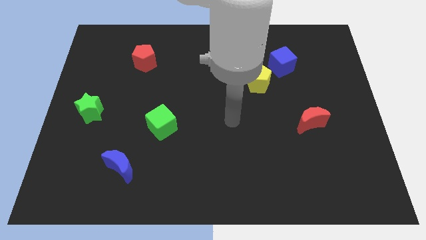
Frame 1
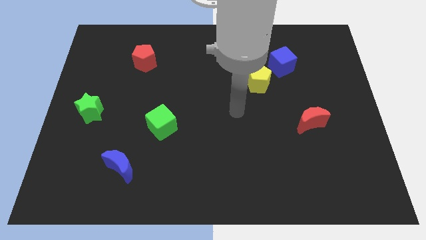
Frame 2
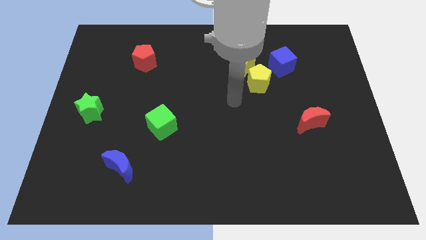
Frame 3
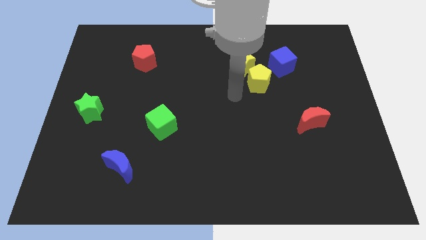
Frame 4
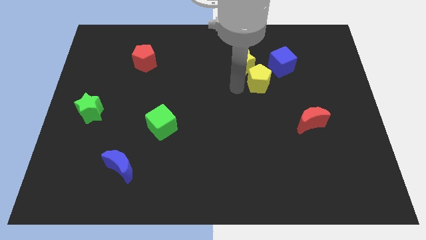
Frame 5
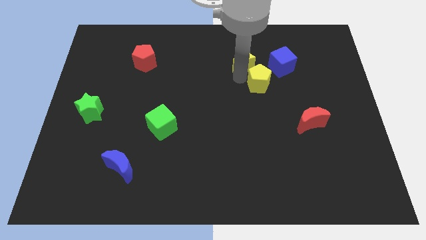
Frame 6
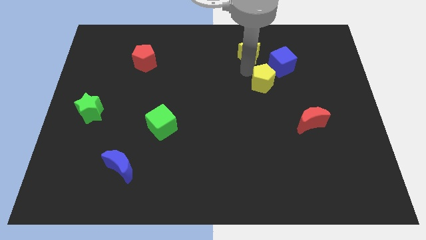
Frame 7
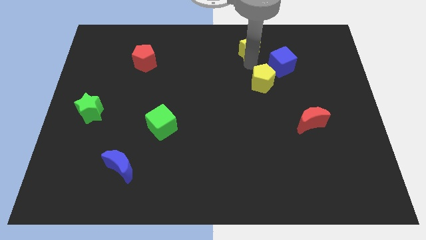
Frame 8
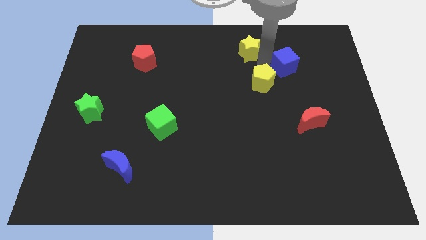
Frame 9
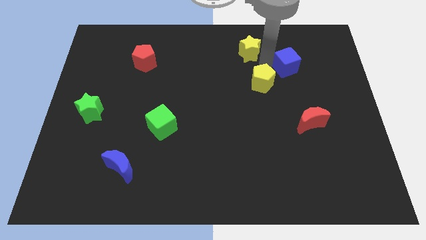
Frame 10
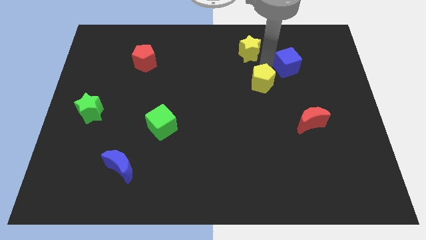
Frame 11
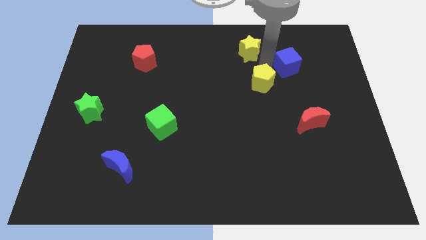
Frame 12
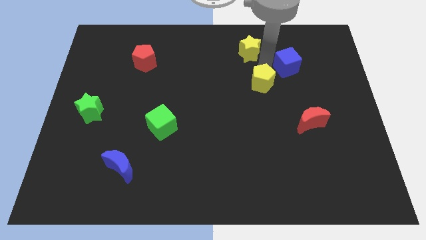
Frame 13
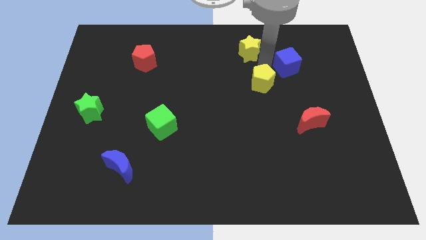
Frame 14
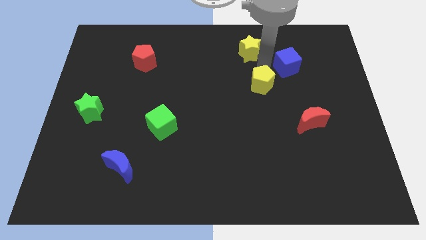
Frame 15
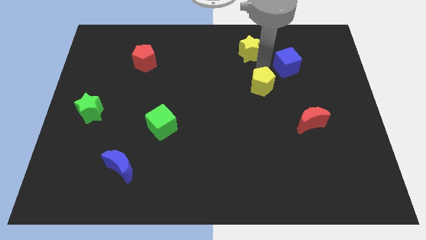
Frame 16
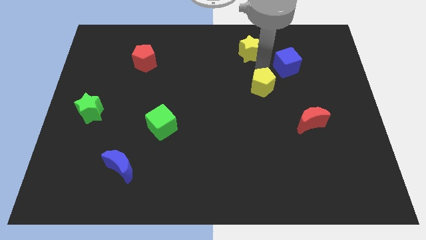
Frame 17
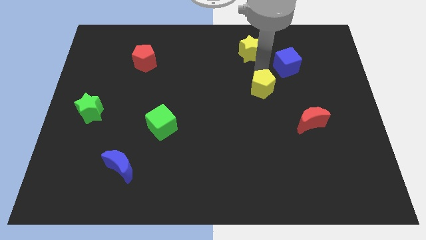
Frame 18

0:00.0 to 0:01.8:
pull the yellow pentagon apart from the yellow star and blue cube

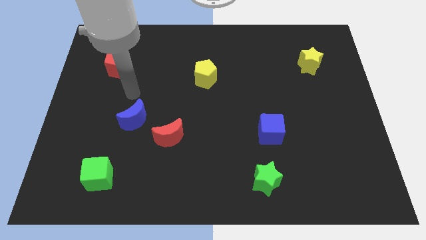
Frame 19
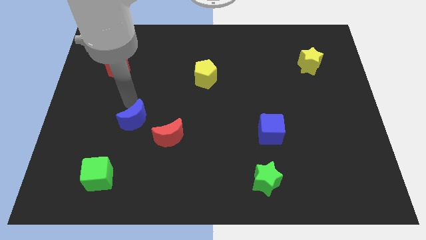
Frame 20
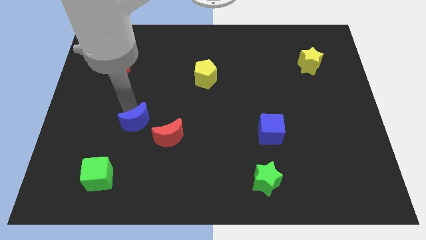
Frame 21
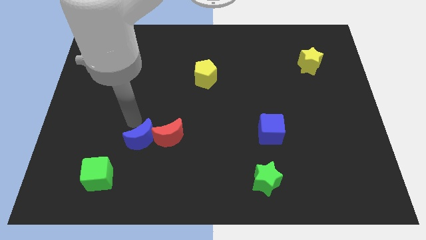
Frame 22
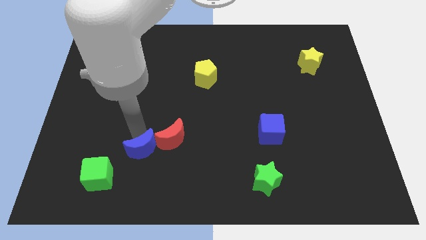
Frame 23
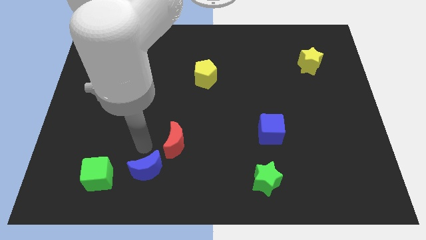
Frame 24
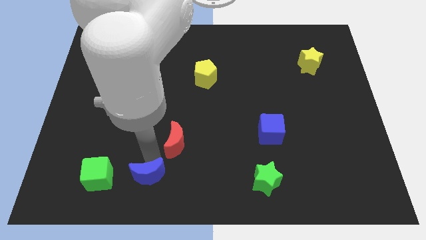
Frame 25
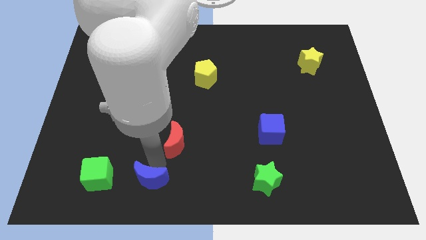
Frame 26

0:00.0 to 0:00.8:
move the red moon away from the blue moon

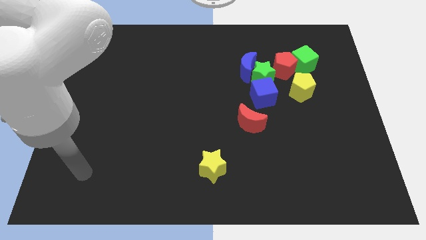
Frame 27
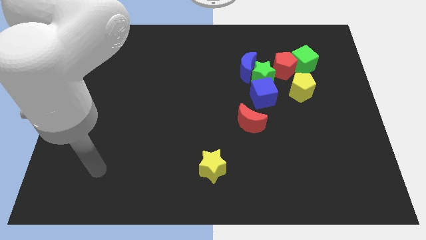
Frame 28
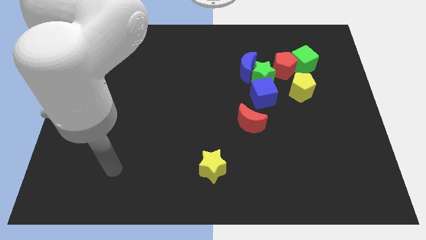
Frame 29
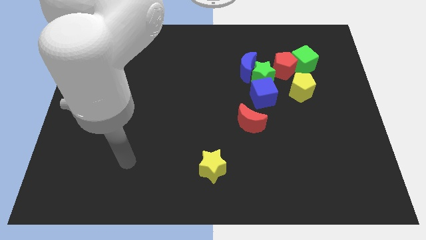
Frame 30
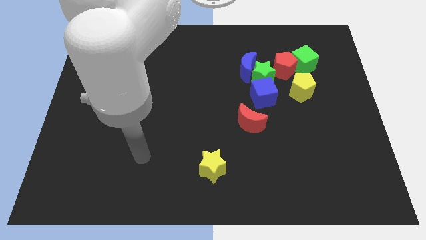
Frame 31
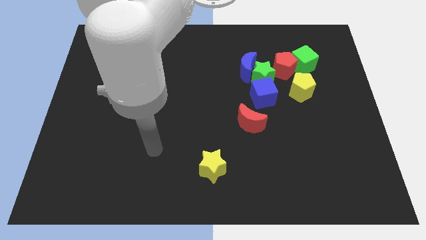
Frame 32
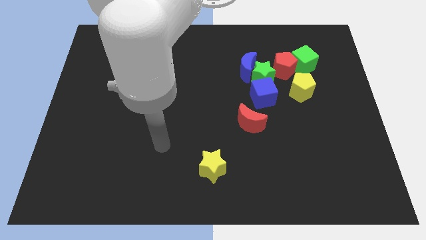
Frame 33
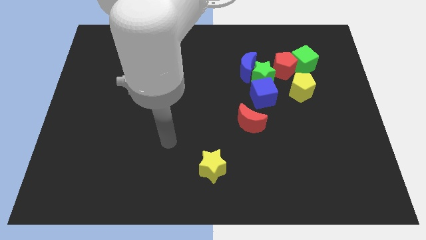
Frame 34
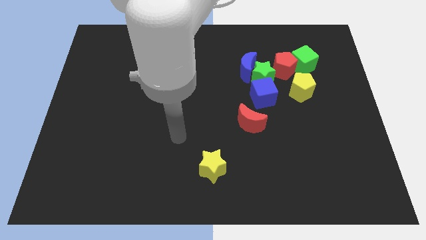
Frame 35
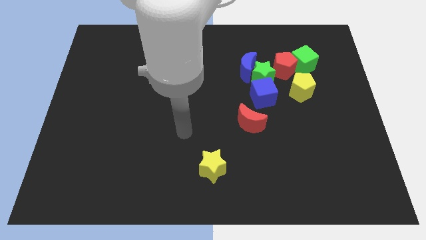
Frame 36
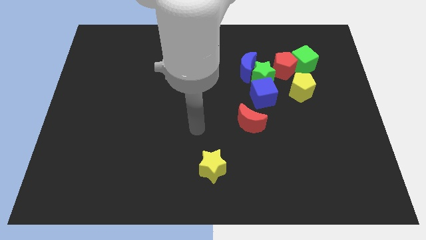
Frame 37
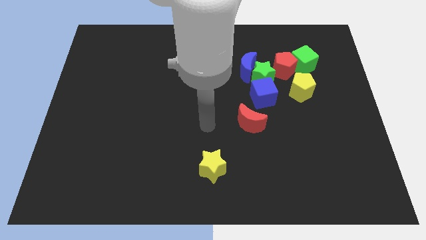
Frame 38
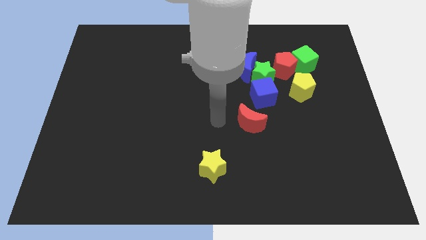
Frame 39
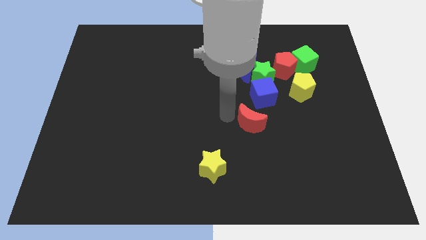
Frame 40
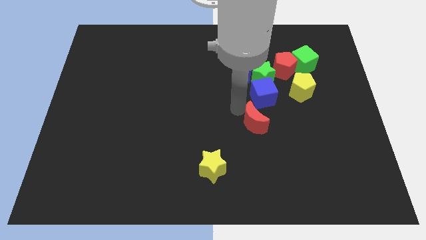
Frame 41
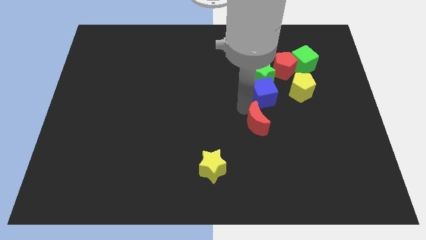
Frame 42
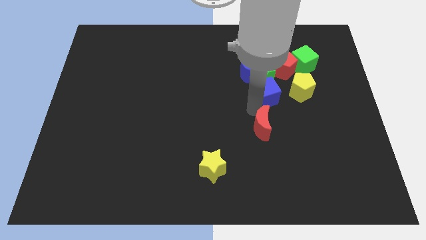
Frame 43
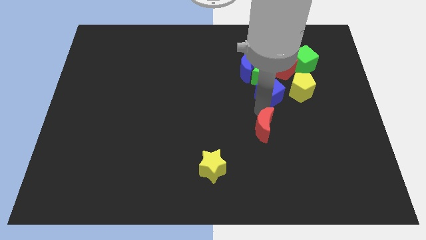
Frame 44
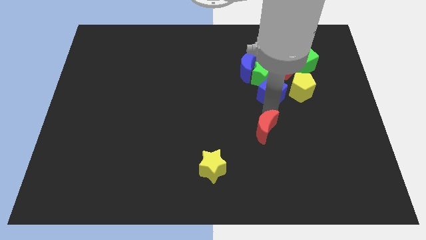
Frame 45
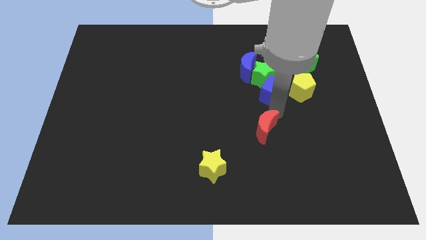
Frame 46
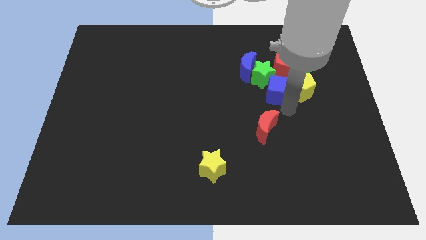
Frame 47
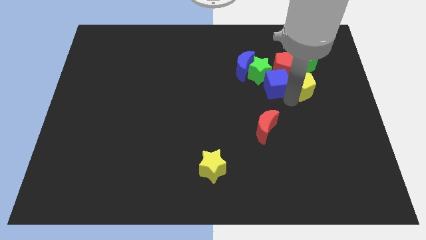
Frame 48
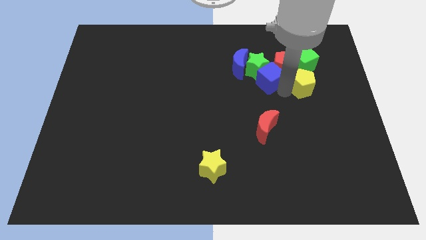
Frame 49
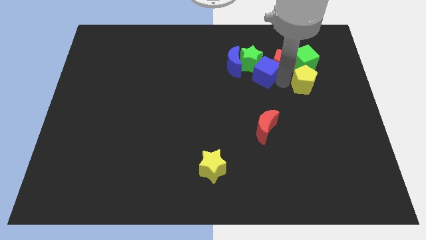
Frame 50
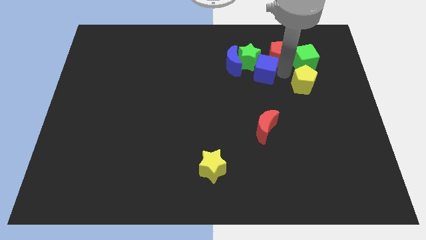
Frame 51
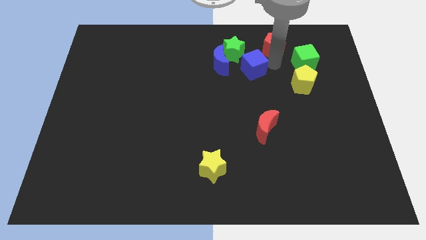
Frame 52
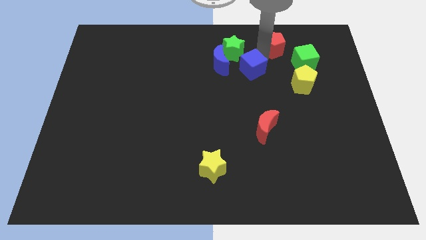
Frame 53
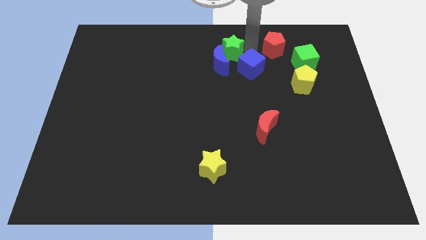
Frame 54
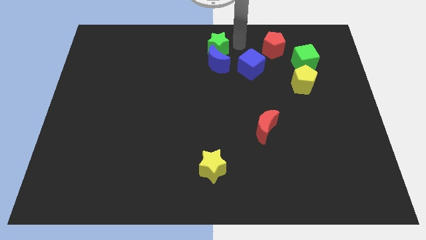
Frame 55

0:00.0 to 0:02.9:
move the green star away from the group of blocks

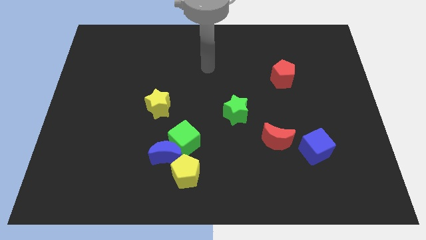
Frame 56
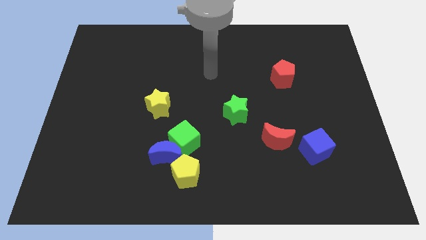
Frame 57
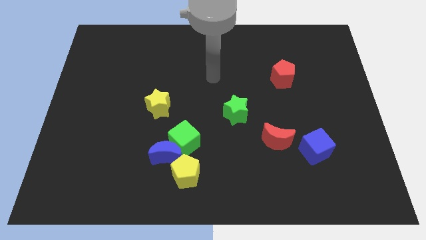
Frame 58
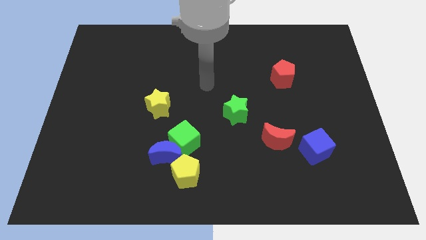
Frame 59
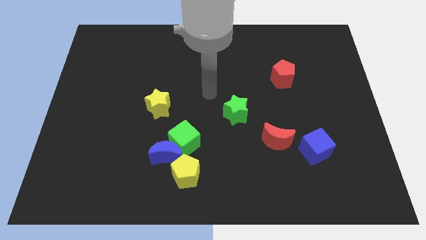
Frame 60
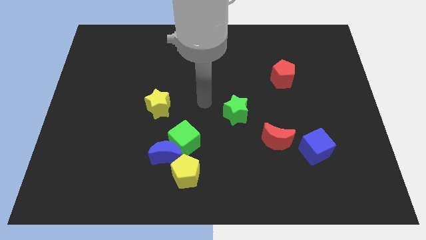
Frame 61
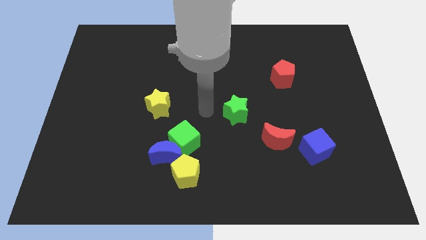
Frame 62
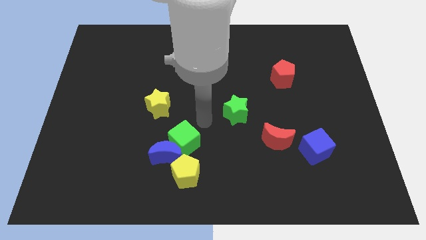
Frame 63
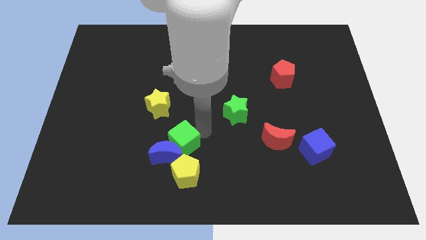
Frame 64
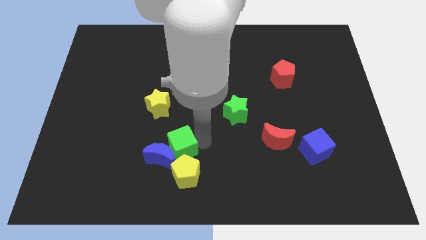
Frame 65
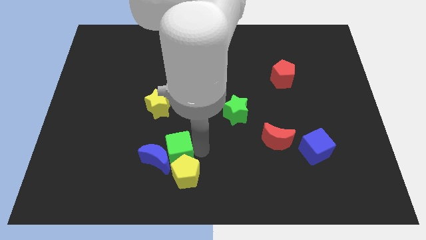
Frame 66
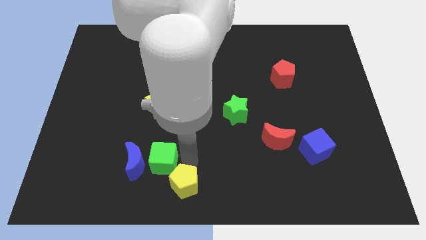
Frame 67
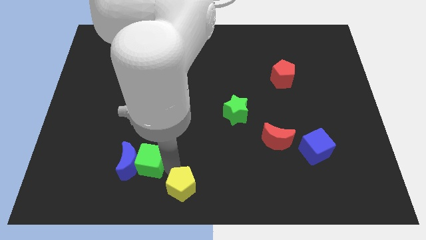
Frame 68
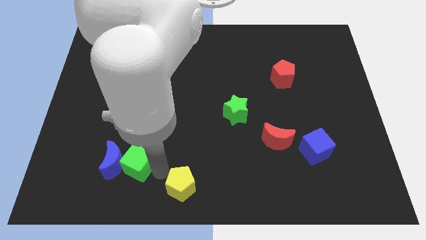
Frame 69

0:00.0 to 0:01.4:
separate the blue moon from the green cube and yellow pentagon

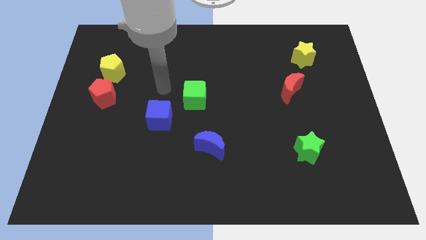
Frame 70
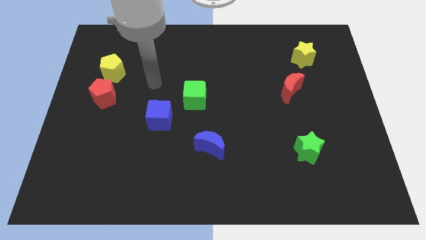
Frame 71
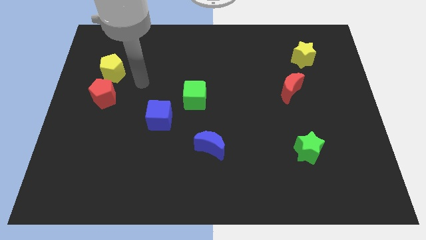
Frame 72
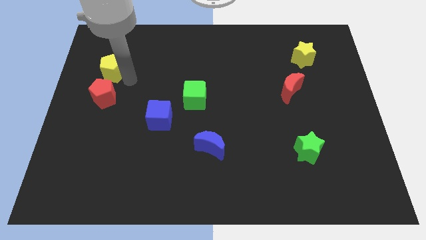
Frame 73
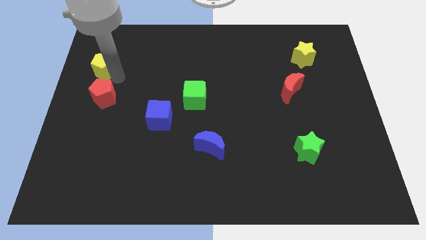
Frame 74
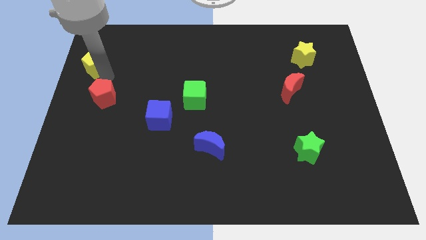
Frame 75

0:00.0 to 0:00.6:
move the red pentagon away from the yellow pentagon

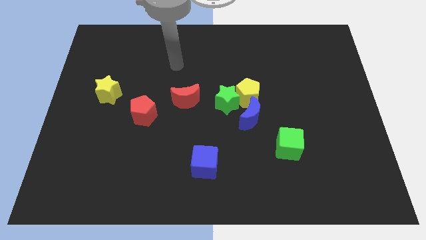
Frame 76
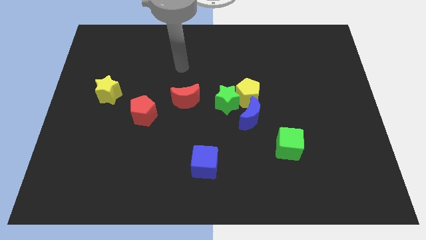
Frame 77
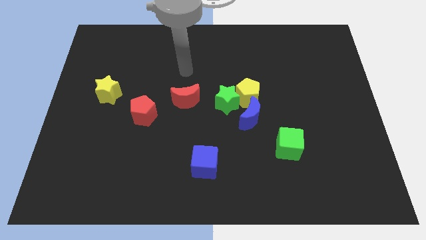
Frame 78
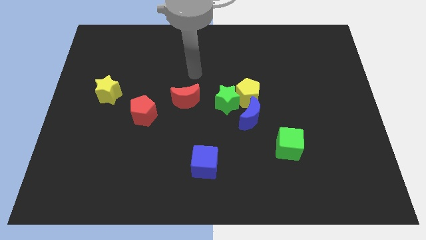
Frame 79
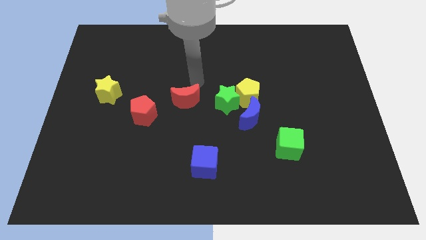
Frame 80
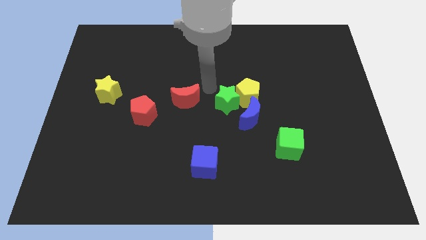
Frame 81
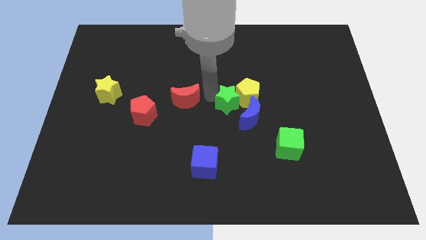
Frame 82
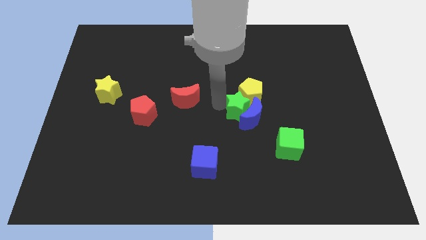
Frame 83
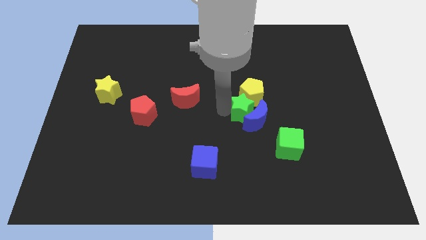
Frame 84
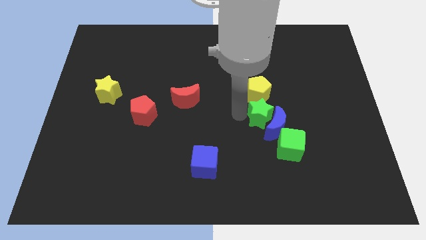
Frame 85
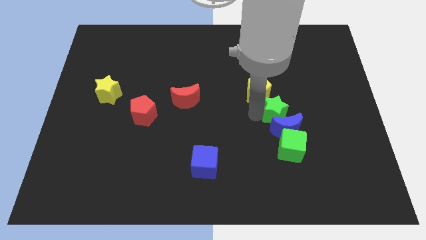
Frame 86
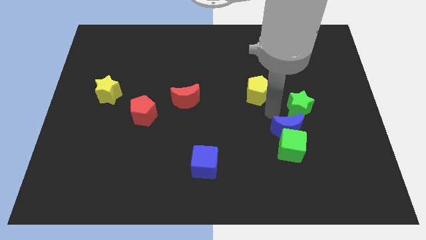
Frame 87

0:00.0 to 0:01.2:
separate the yellow pentagon from the green star and blue moon

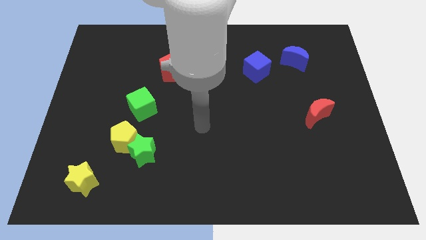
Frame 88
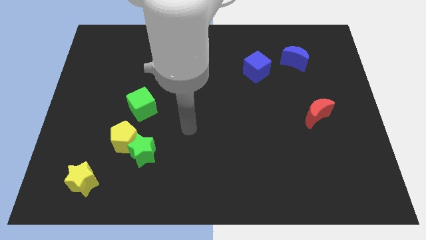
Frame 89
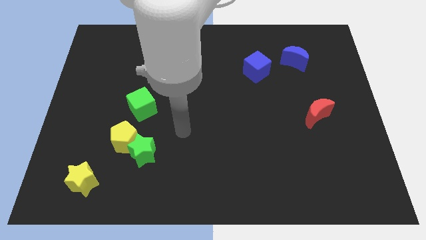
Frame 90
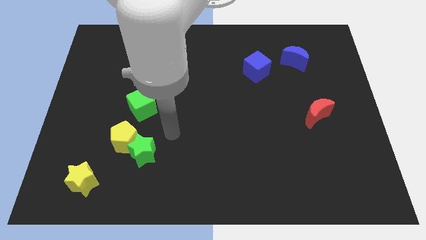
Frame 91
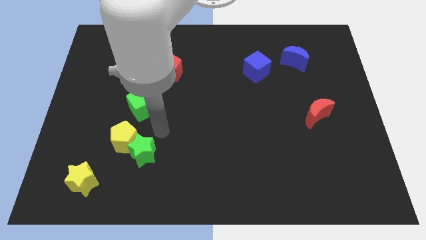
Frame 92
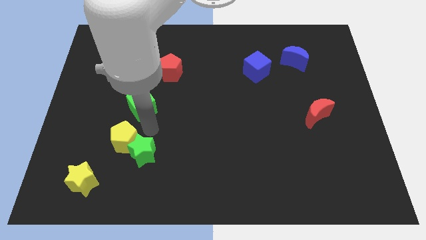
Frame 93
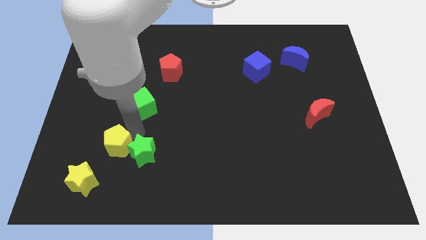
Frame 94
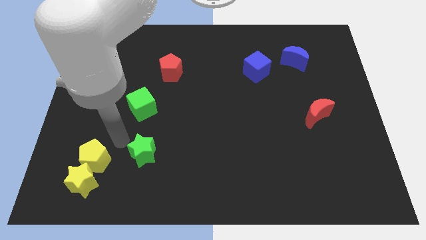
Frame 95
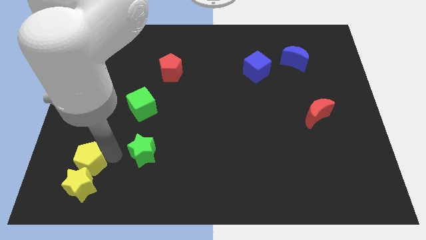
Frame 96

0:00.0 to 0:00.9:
pull the green star apart from the yellow pentagon
